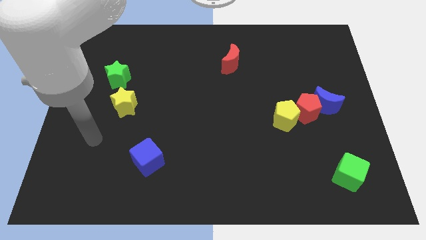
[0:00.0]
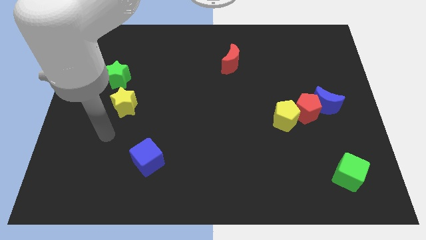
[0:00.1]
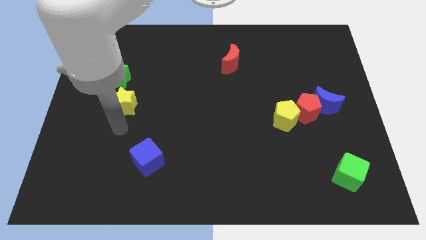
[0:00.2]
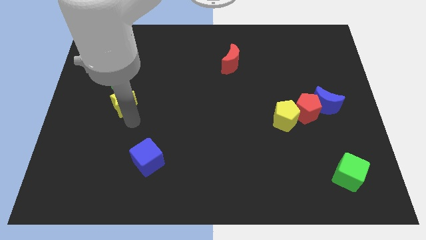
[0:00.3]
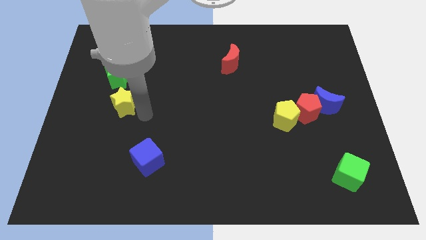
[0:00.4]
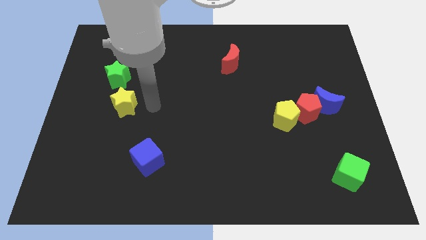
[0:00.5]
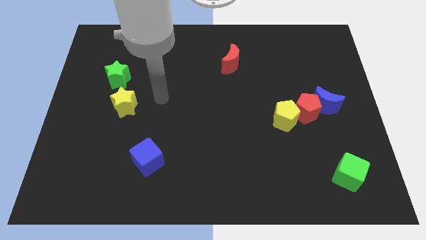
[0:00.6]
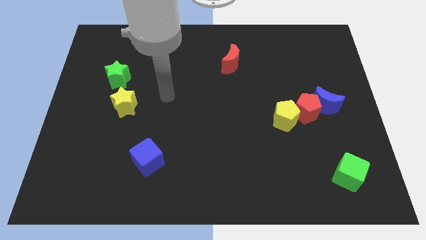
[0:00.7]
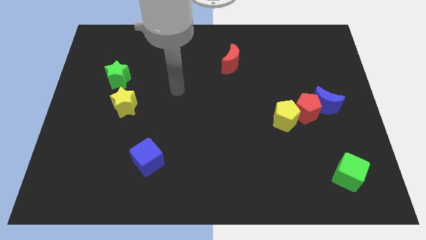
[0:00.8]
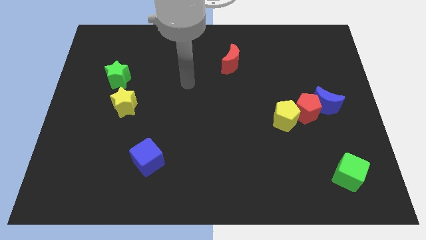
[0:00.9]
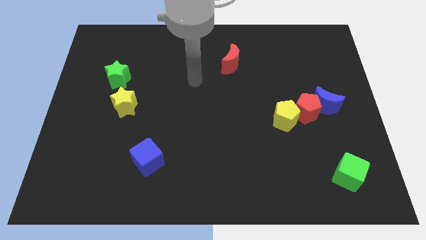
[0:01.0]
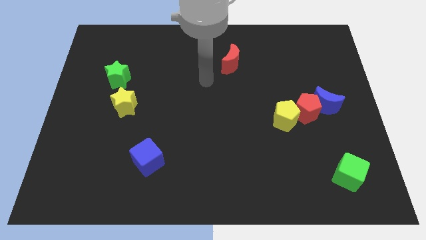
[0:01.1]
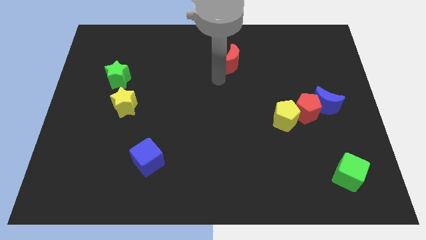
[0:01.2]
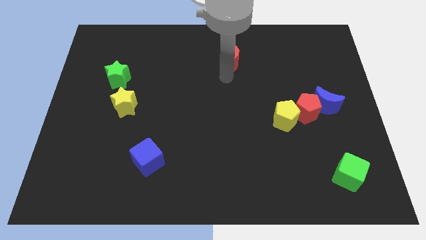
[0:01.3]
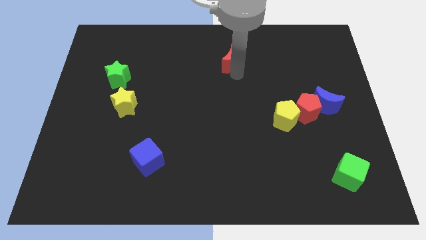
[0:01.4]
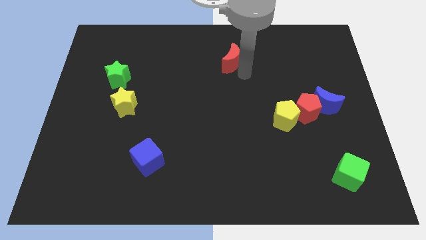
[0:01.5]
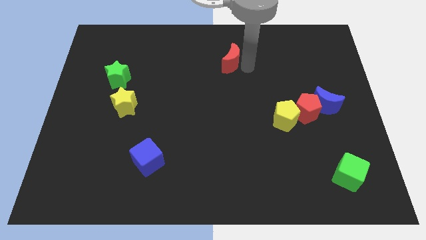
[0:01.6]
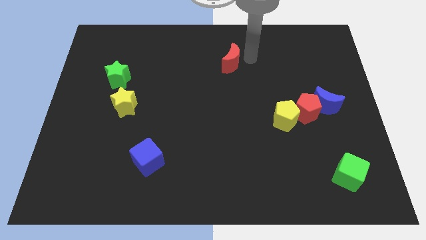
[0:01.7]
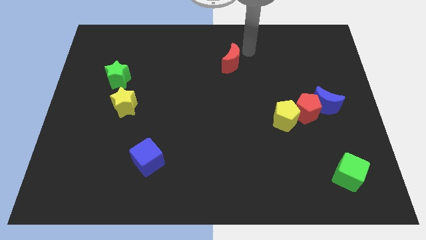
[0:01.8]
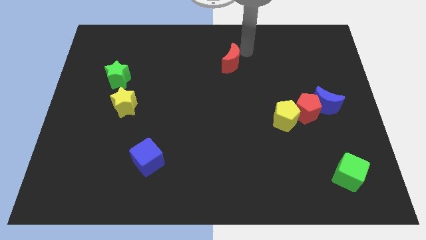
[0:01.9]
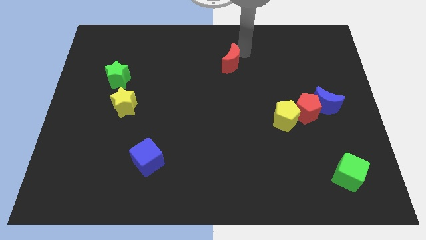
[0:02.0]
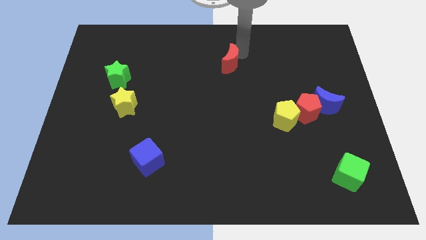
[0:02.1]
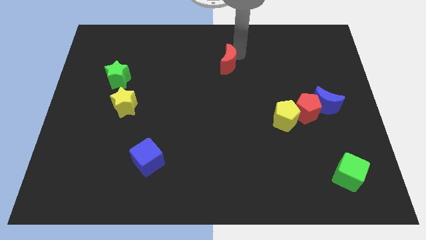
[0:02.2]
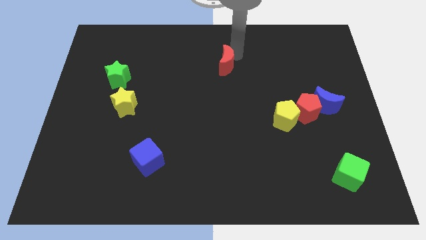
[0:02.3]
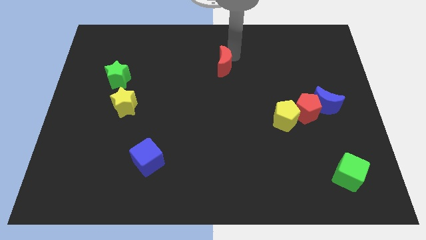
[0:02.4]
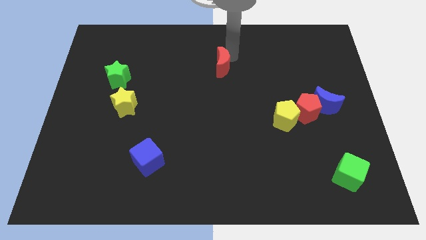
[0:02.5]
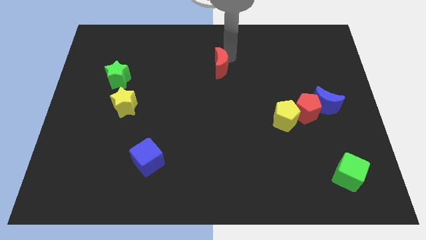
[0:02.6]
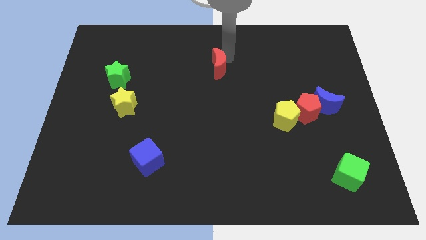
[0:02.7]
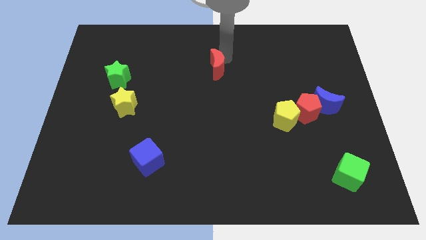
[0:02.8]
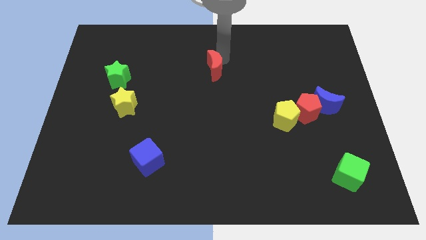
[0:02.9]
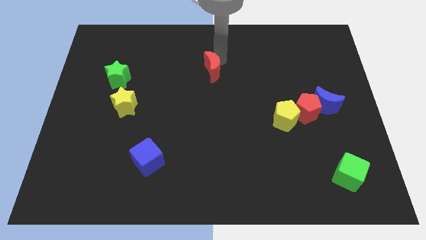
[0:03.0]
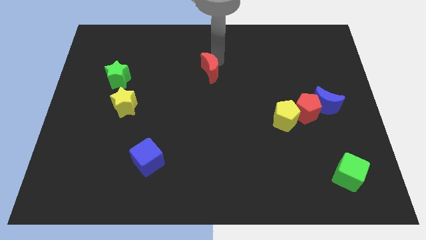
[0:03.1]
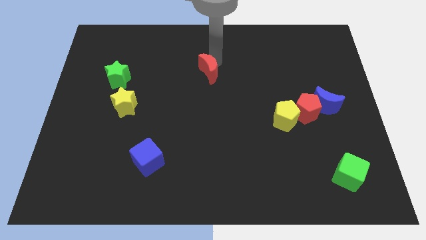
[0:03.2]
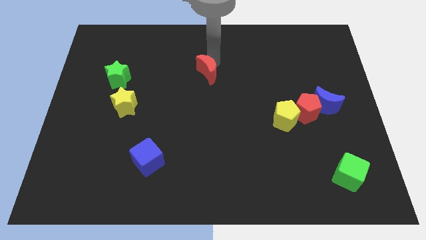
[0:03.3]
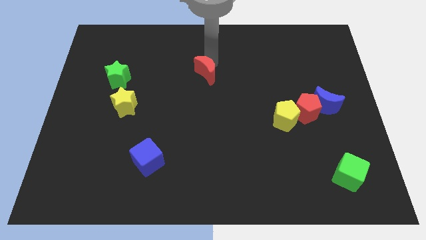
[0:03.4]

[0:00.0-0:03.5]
slide the red moon a bit downwards and left

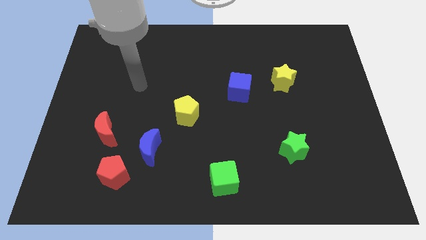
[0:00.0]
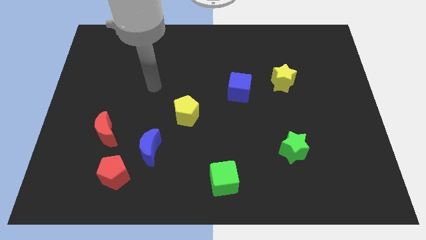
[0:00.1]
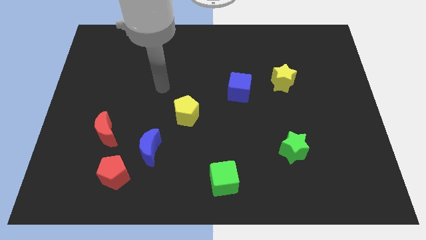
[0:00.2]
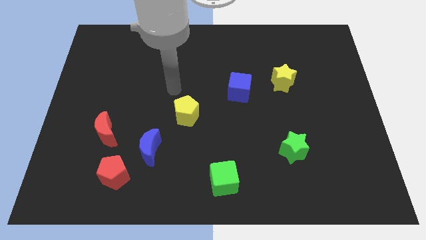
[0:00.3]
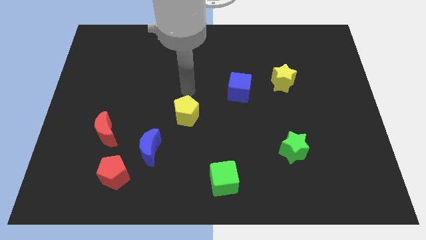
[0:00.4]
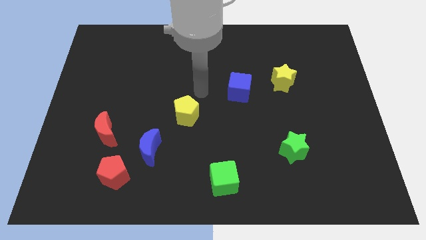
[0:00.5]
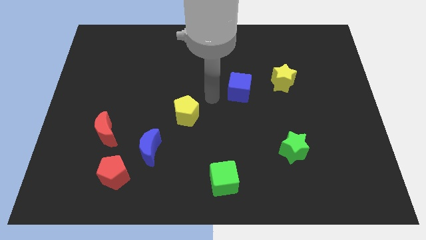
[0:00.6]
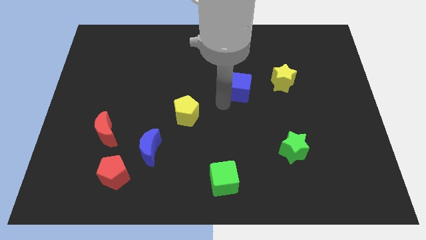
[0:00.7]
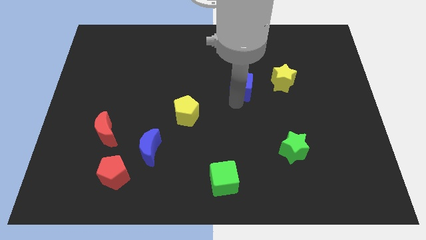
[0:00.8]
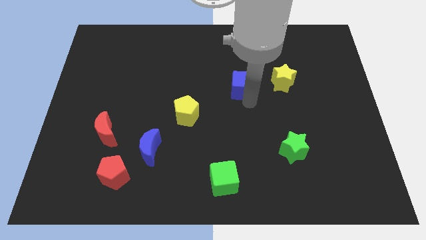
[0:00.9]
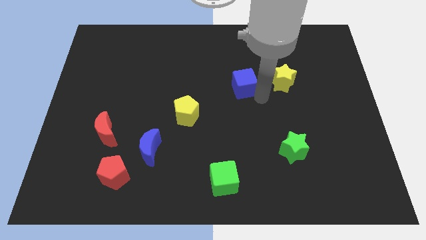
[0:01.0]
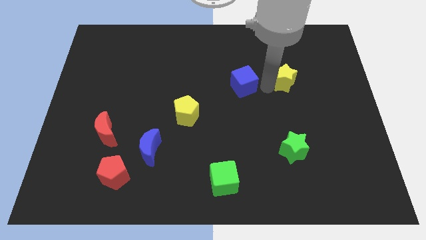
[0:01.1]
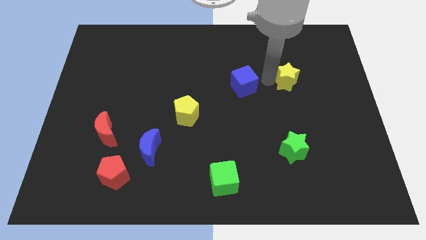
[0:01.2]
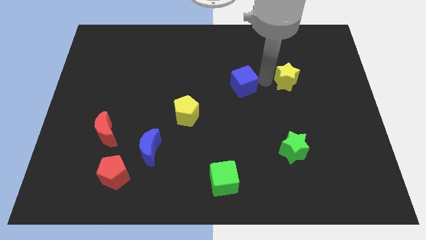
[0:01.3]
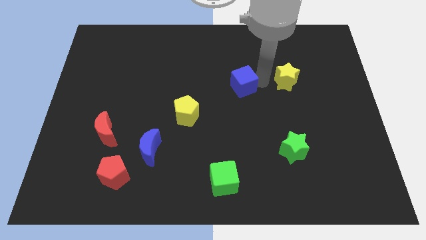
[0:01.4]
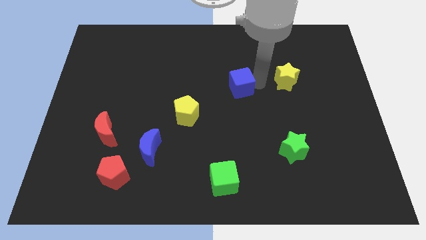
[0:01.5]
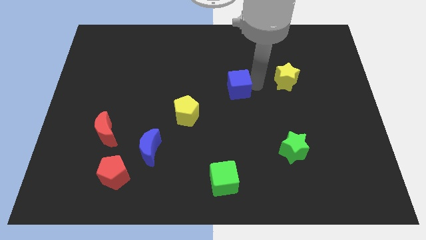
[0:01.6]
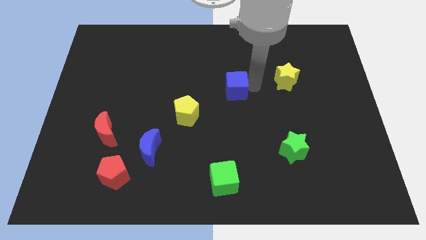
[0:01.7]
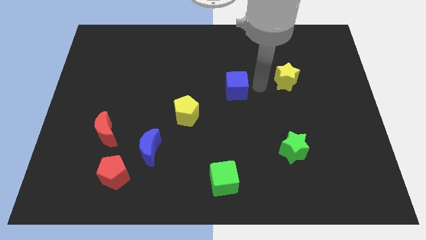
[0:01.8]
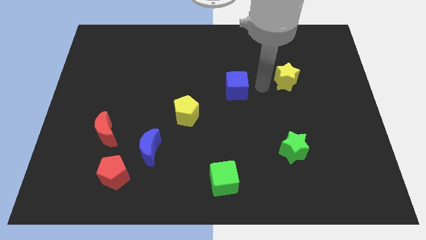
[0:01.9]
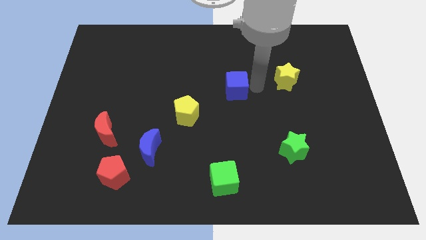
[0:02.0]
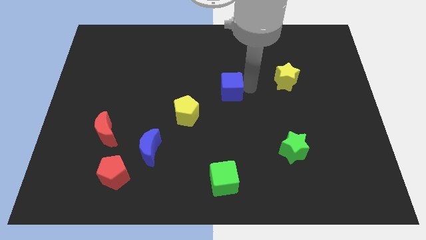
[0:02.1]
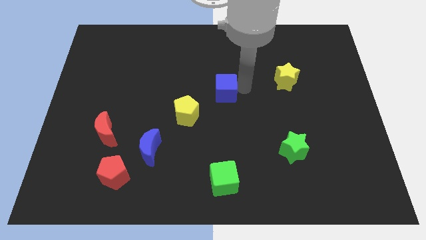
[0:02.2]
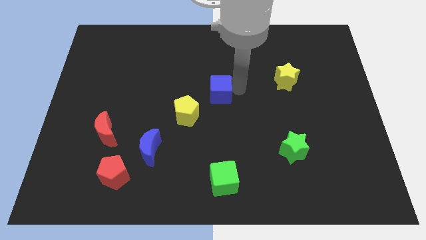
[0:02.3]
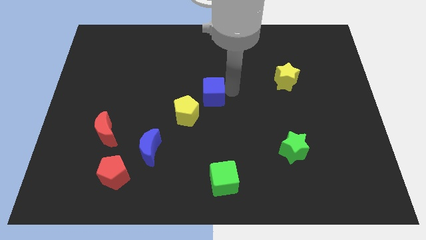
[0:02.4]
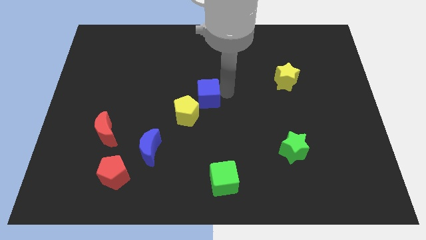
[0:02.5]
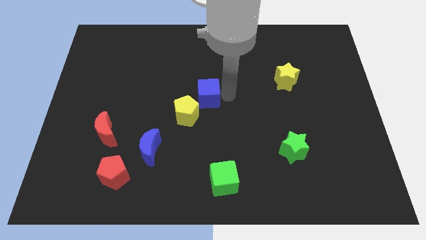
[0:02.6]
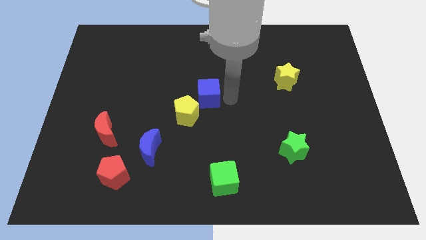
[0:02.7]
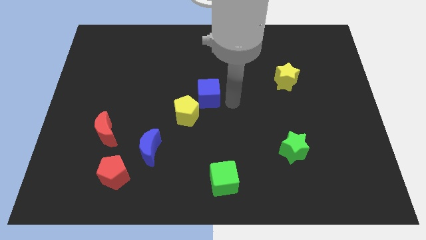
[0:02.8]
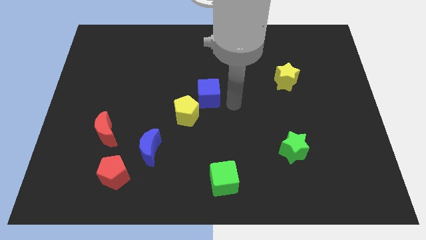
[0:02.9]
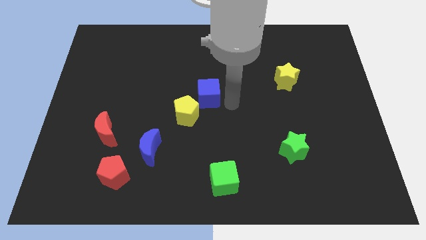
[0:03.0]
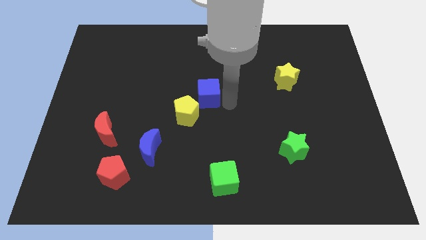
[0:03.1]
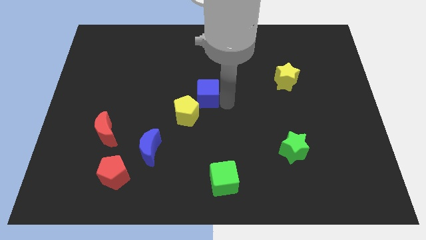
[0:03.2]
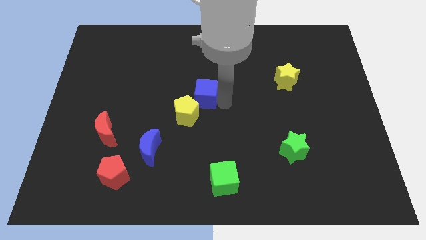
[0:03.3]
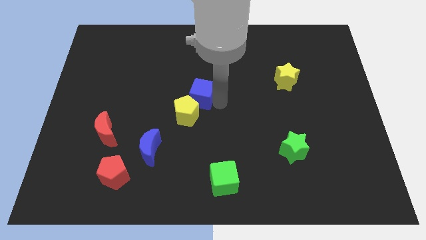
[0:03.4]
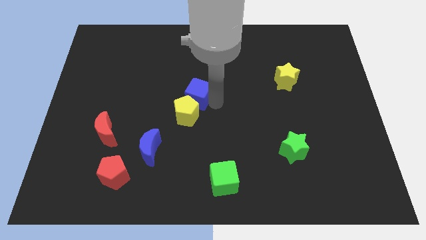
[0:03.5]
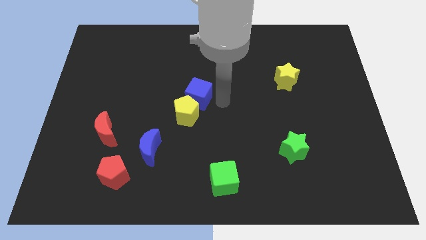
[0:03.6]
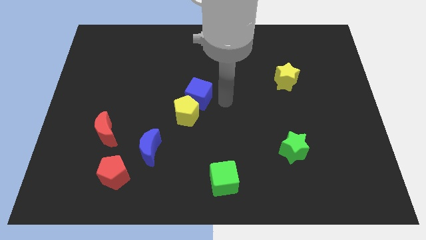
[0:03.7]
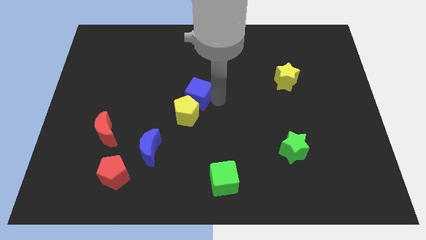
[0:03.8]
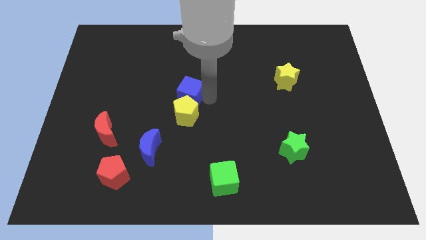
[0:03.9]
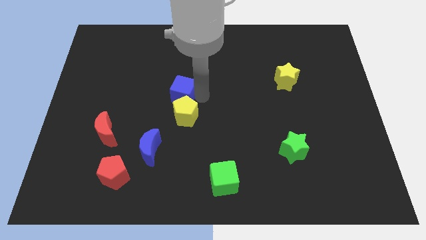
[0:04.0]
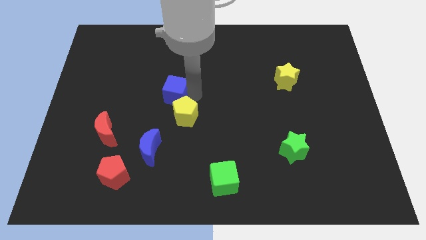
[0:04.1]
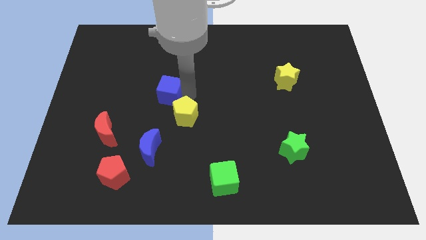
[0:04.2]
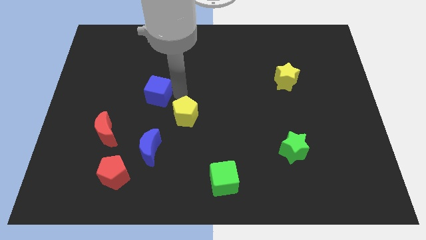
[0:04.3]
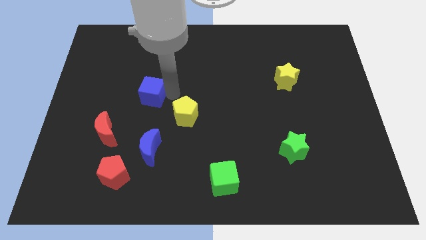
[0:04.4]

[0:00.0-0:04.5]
move the blue cube to the left

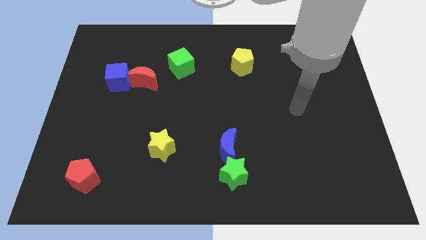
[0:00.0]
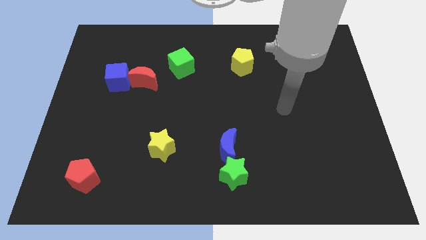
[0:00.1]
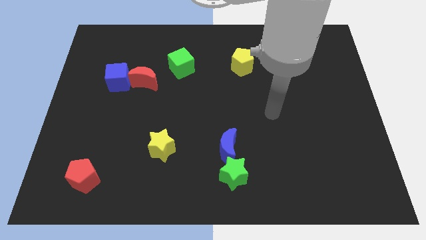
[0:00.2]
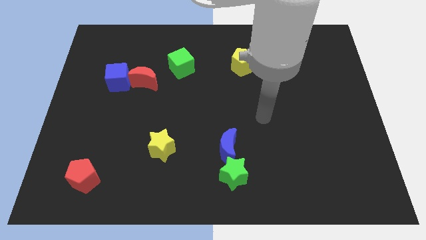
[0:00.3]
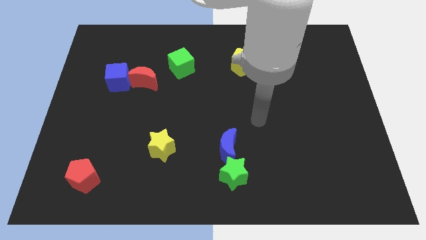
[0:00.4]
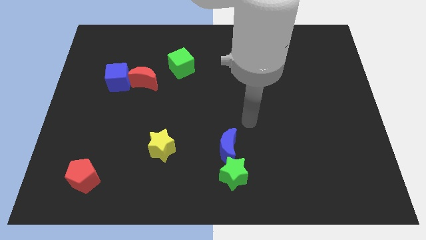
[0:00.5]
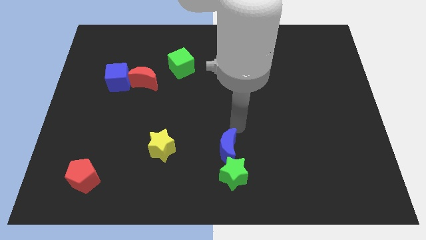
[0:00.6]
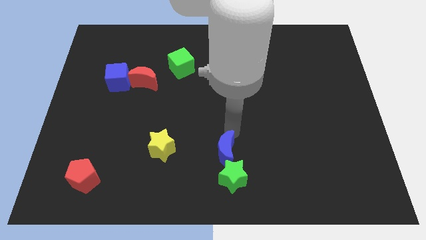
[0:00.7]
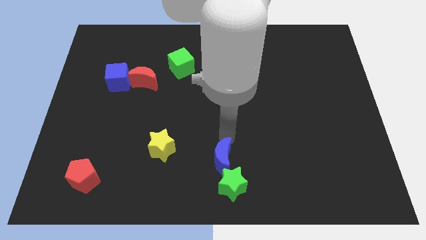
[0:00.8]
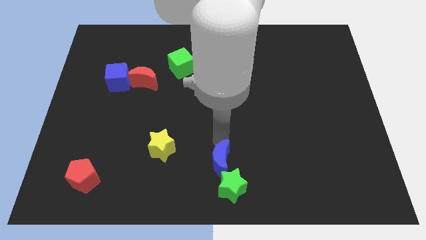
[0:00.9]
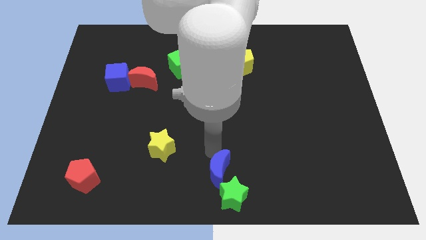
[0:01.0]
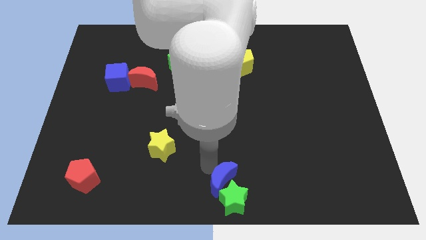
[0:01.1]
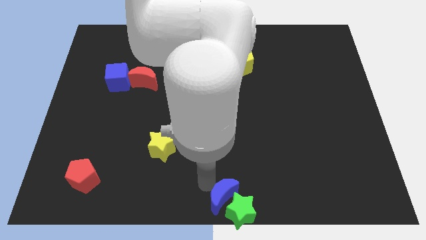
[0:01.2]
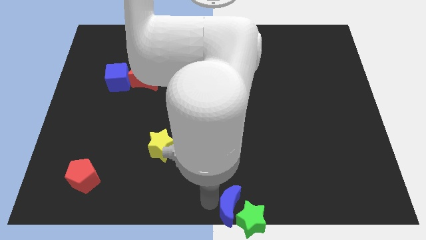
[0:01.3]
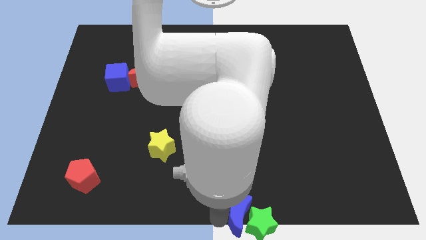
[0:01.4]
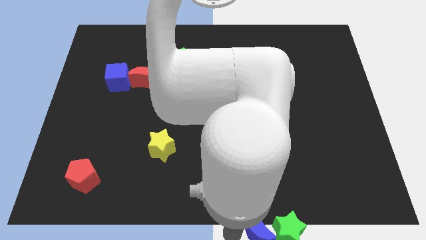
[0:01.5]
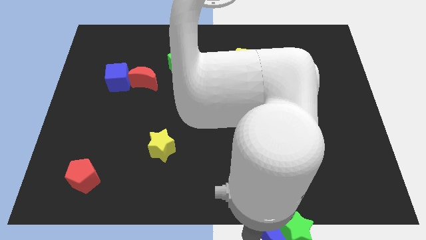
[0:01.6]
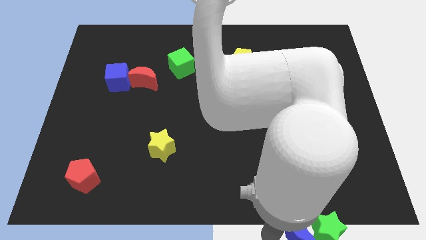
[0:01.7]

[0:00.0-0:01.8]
slightly push the green star right
